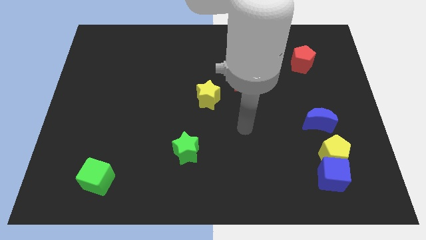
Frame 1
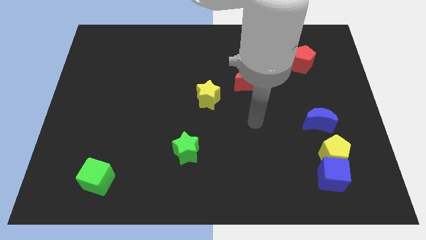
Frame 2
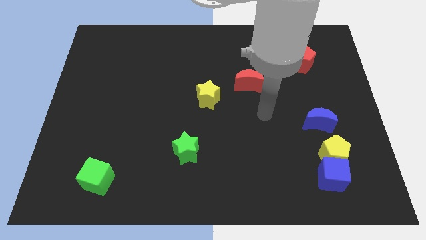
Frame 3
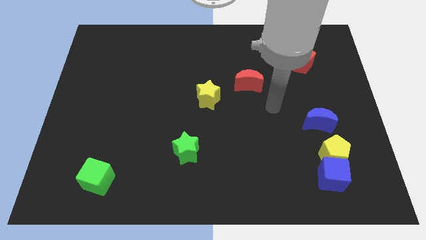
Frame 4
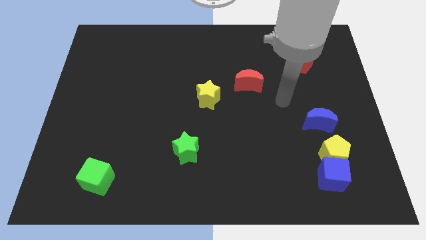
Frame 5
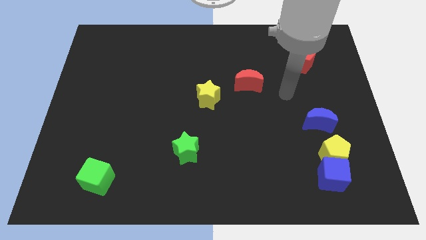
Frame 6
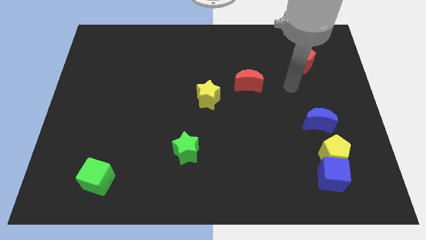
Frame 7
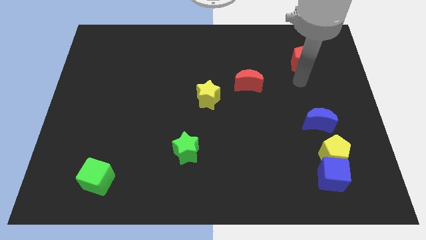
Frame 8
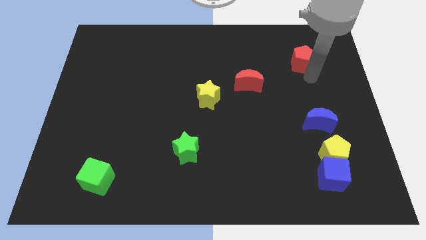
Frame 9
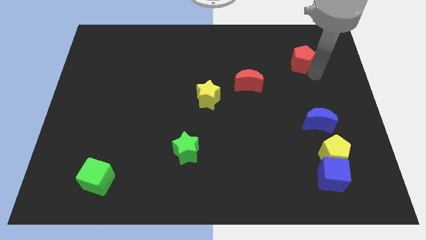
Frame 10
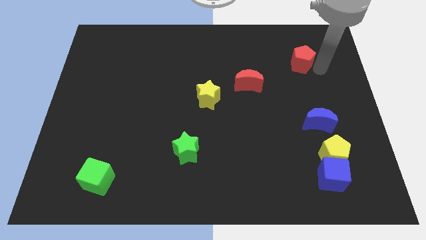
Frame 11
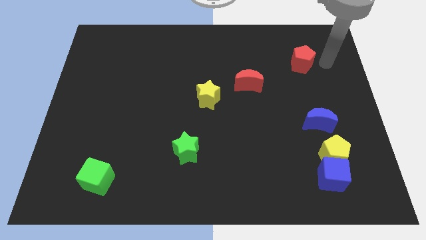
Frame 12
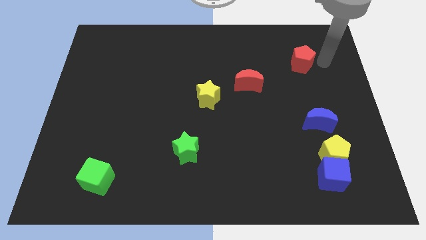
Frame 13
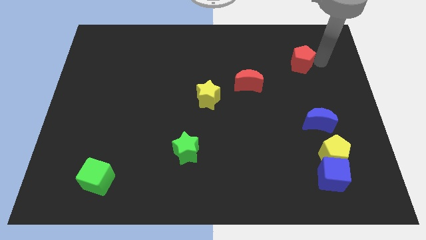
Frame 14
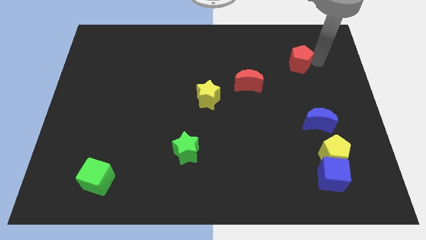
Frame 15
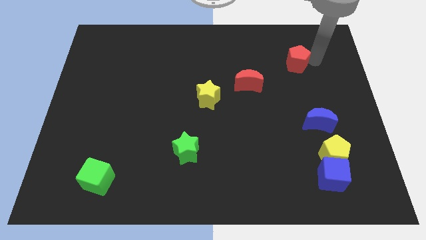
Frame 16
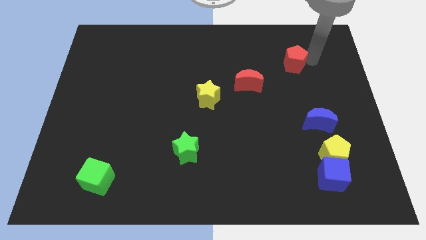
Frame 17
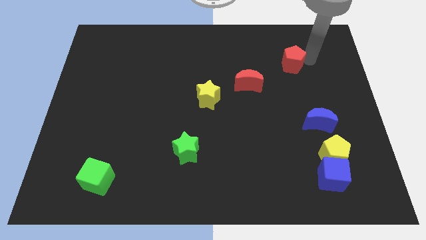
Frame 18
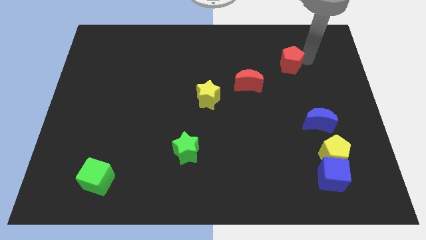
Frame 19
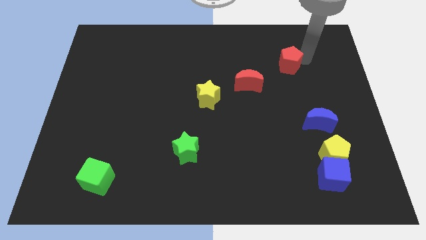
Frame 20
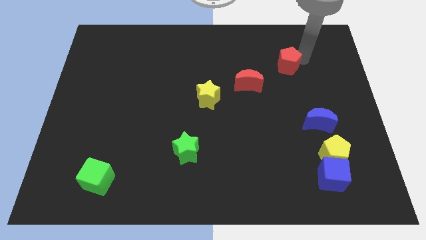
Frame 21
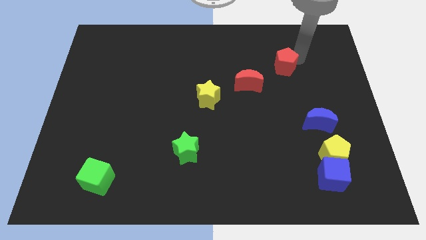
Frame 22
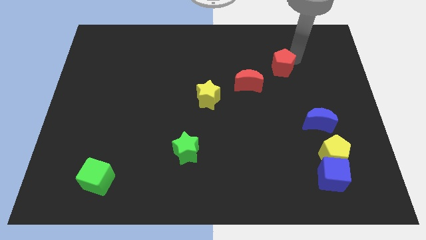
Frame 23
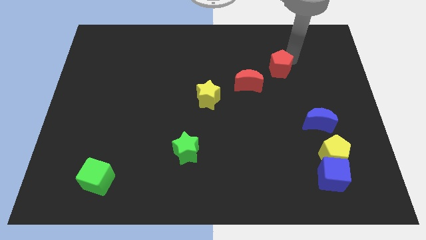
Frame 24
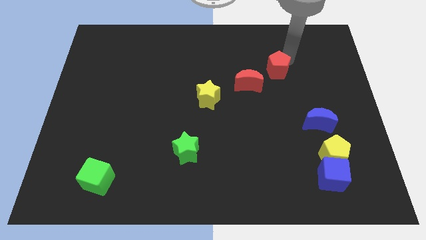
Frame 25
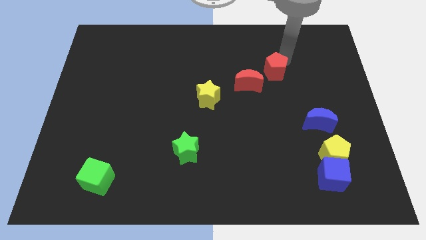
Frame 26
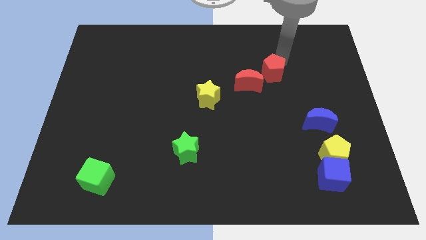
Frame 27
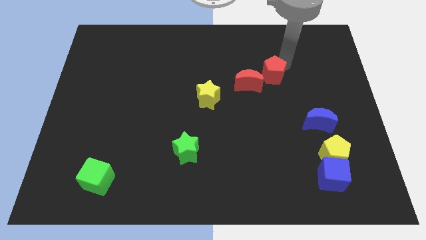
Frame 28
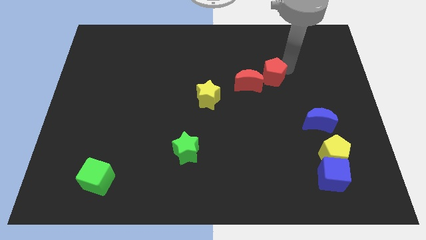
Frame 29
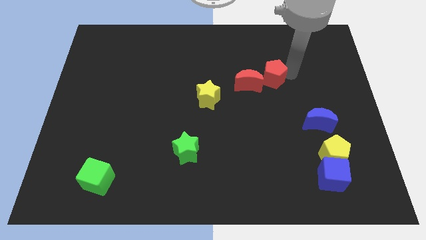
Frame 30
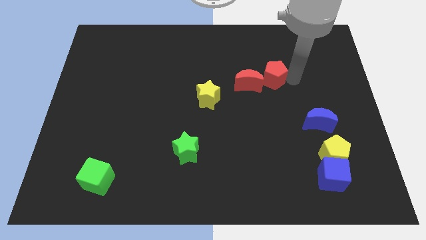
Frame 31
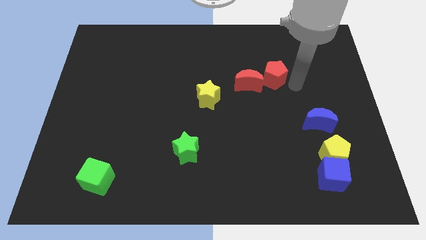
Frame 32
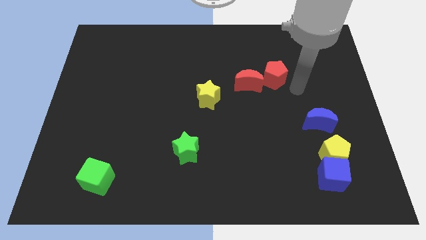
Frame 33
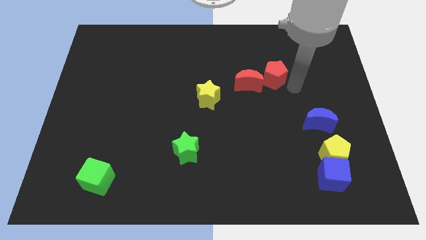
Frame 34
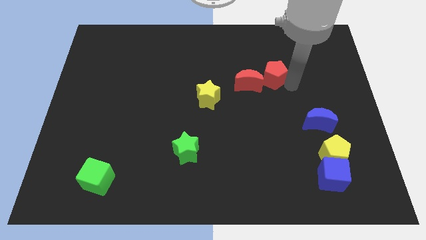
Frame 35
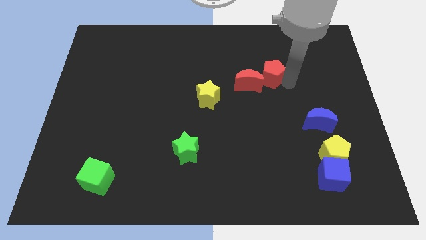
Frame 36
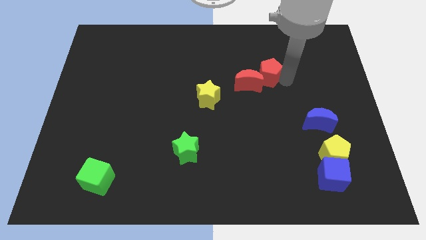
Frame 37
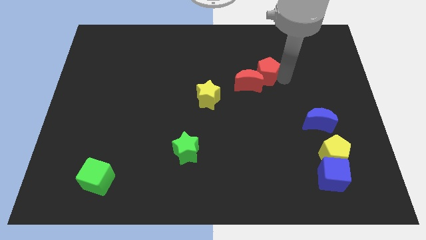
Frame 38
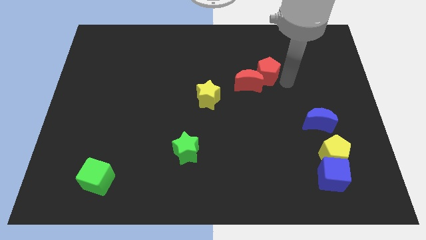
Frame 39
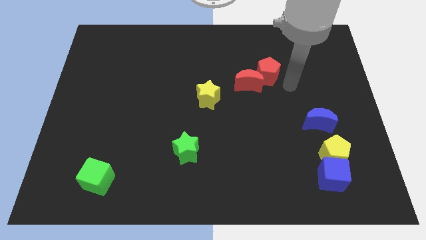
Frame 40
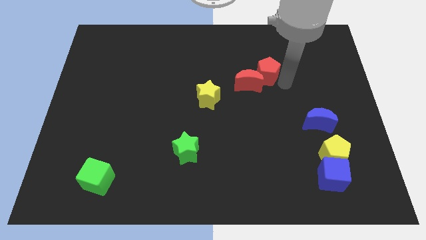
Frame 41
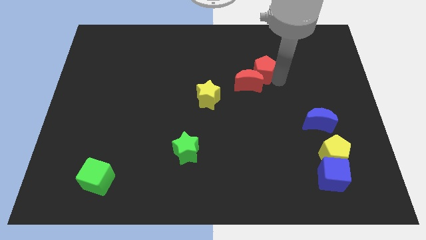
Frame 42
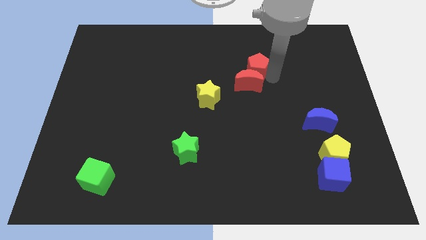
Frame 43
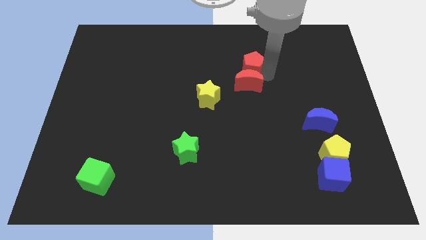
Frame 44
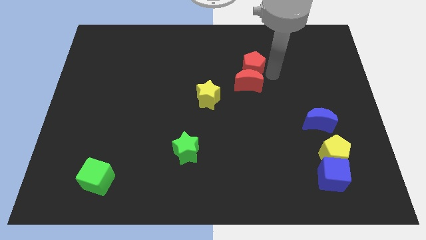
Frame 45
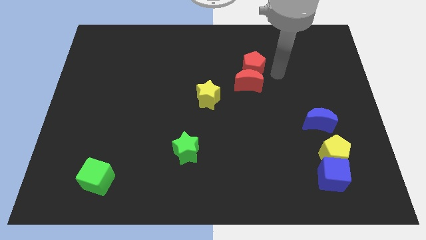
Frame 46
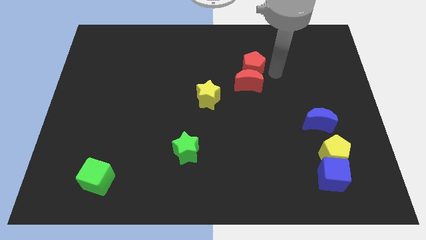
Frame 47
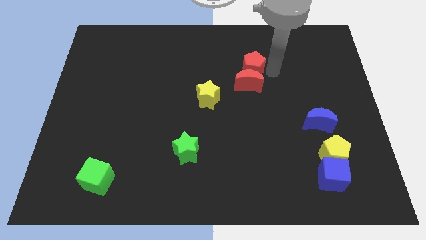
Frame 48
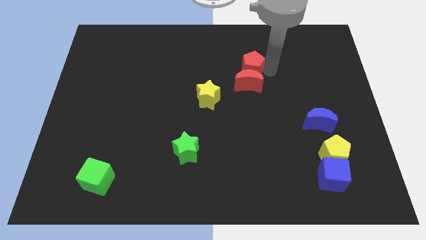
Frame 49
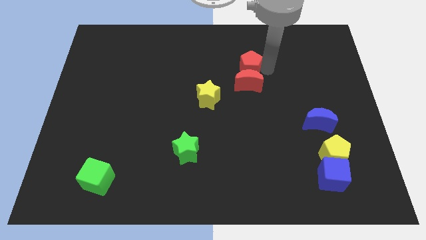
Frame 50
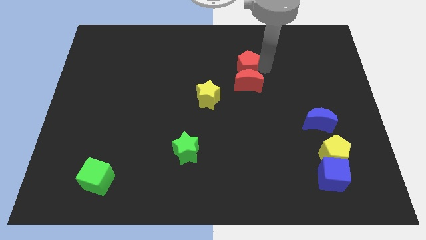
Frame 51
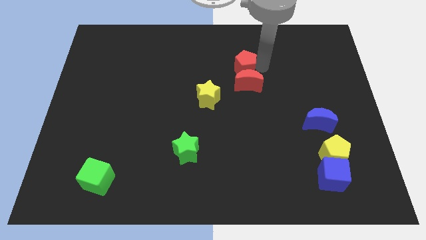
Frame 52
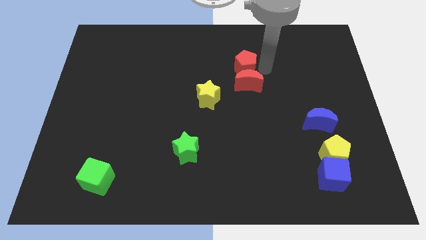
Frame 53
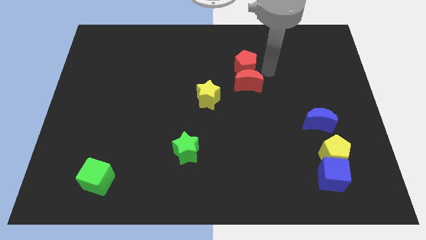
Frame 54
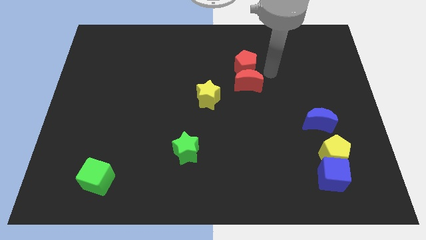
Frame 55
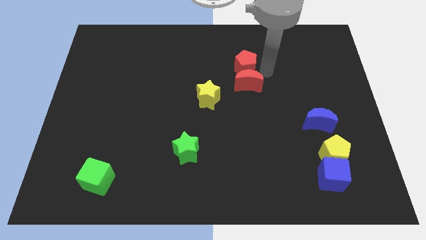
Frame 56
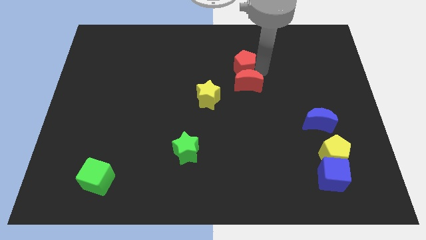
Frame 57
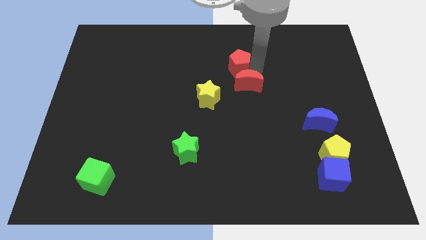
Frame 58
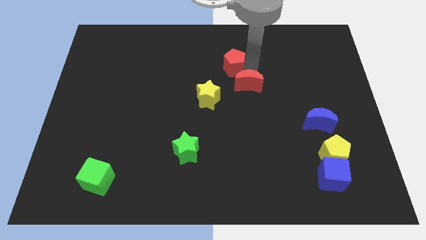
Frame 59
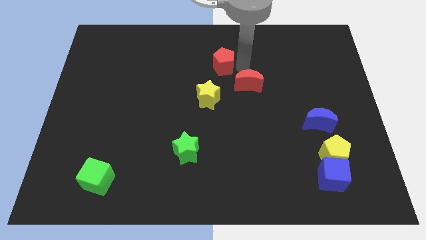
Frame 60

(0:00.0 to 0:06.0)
slide the red pentagon left

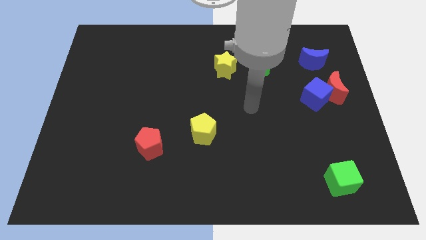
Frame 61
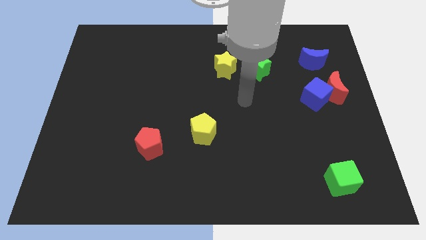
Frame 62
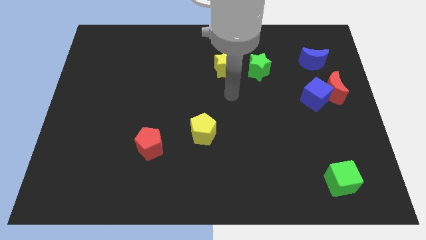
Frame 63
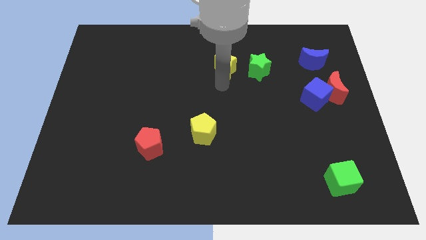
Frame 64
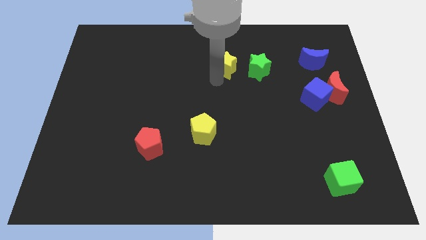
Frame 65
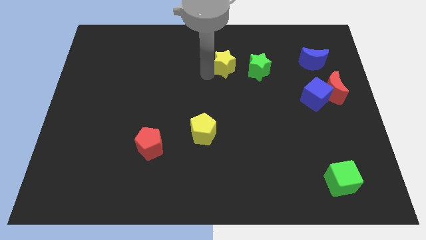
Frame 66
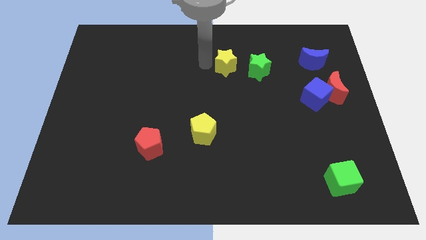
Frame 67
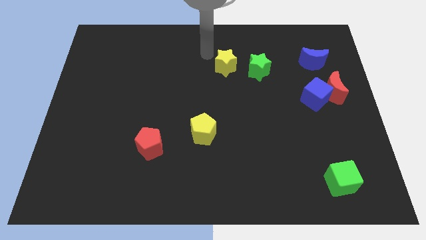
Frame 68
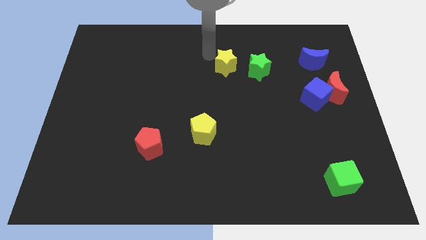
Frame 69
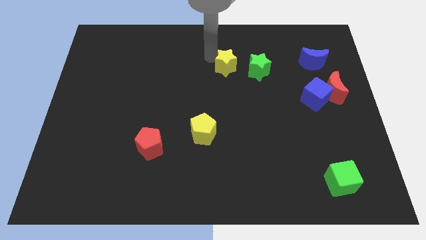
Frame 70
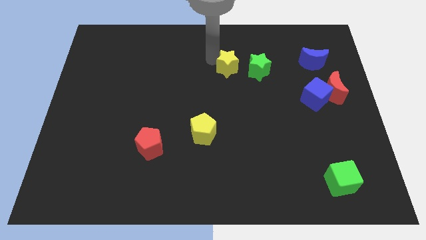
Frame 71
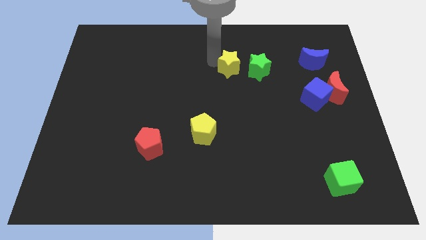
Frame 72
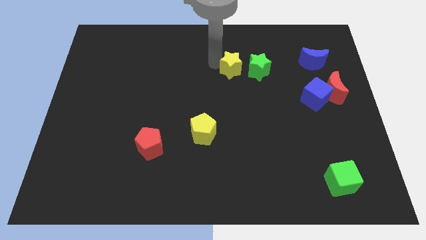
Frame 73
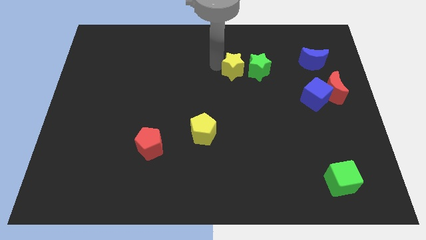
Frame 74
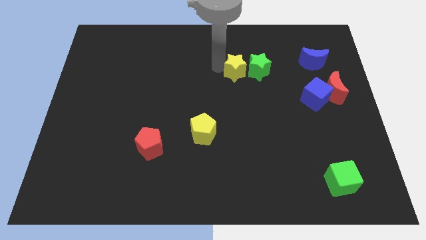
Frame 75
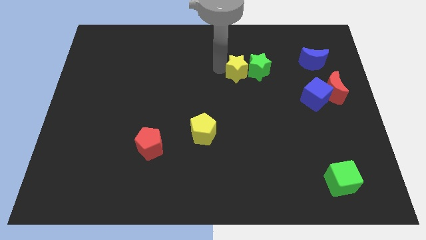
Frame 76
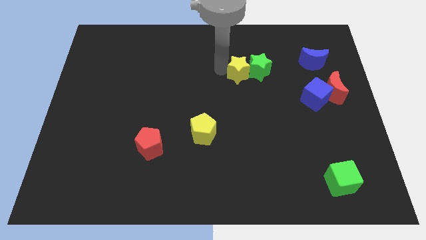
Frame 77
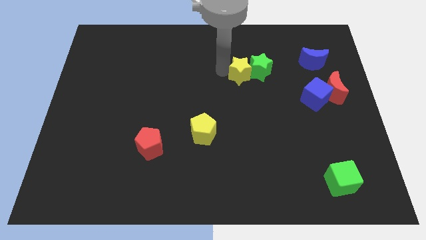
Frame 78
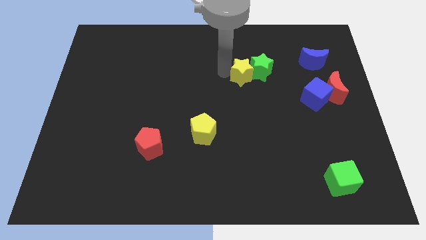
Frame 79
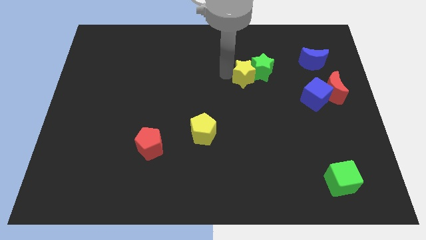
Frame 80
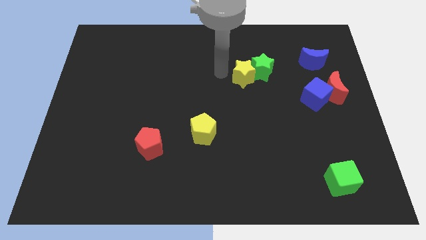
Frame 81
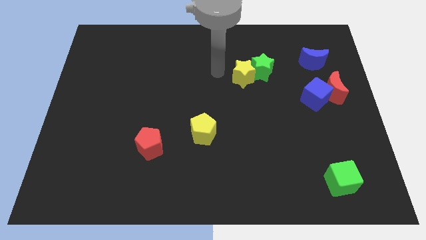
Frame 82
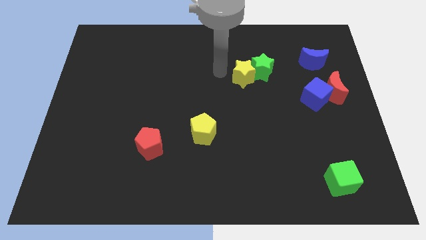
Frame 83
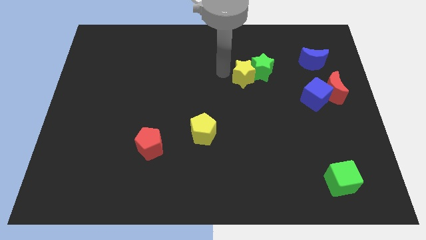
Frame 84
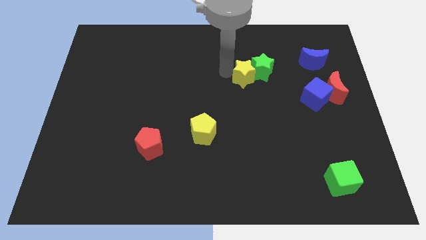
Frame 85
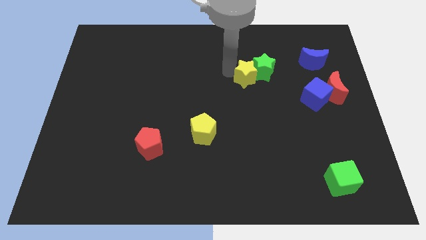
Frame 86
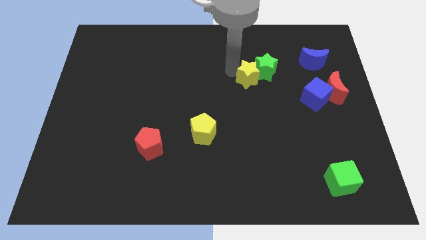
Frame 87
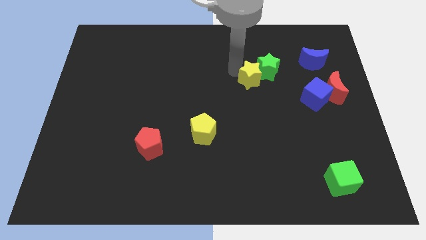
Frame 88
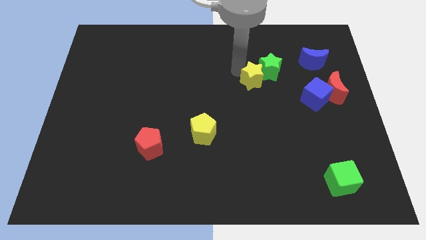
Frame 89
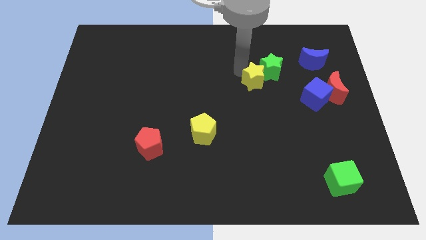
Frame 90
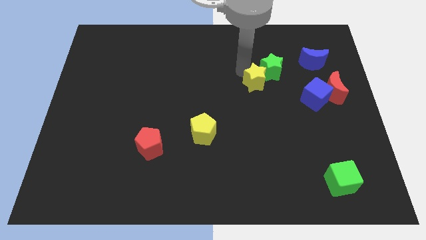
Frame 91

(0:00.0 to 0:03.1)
push the yellow star a little right
